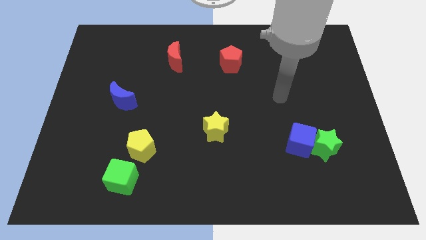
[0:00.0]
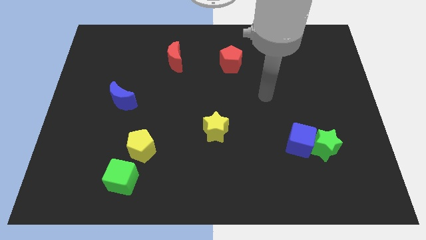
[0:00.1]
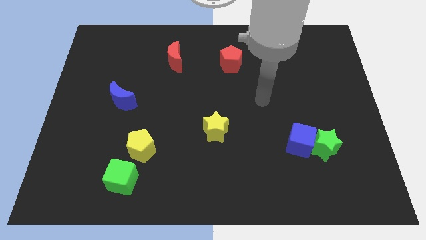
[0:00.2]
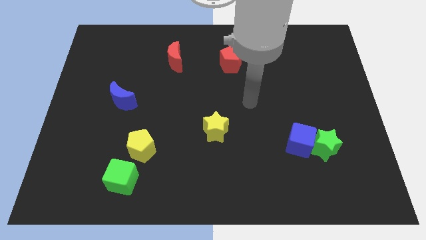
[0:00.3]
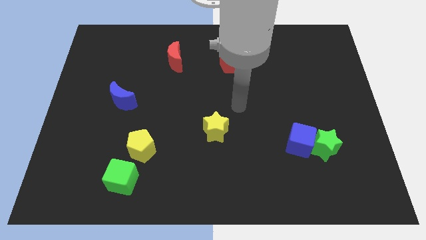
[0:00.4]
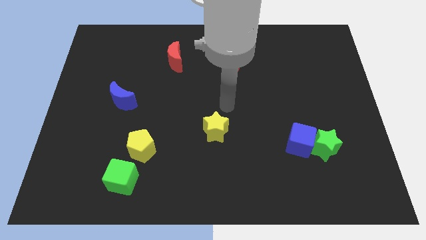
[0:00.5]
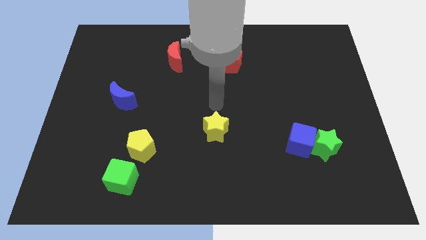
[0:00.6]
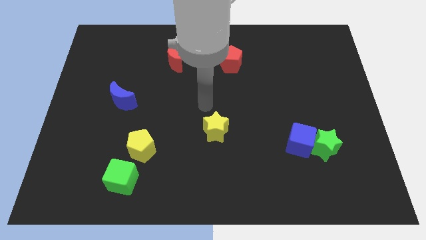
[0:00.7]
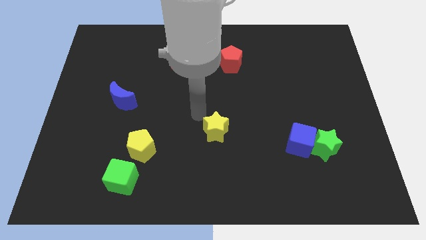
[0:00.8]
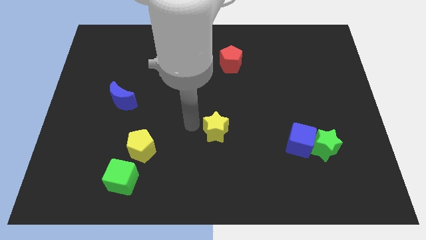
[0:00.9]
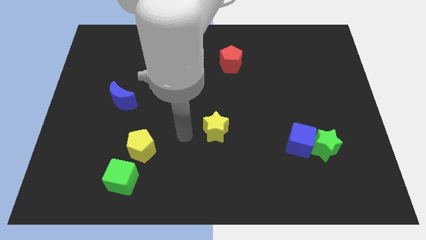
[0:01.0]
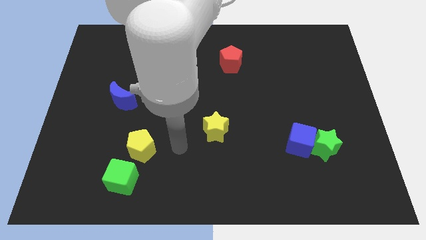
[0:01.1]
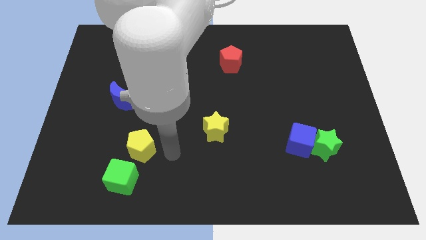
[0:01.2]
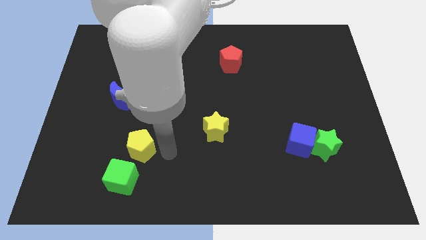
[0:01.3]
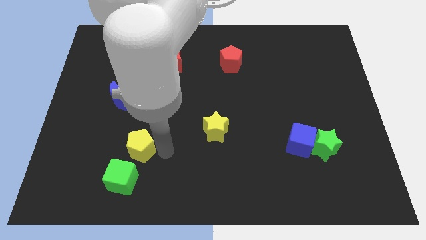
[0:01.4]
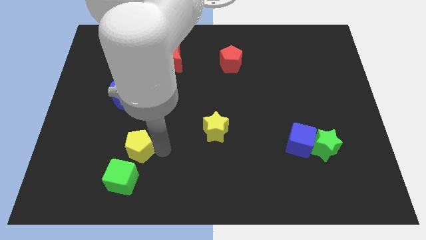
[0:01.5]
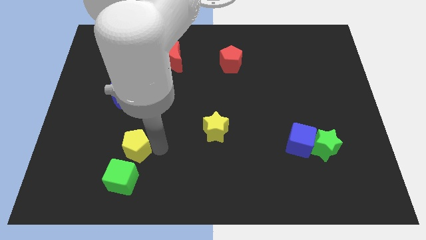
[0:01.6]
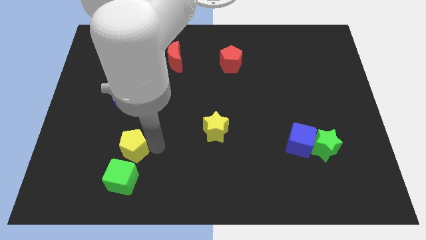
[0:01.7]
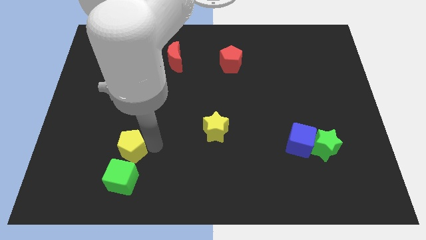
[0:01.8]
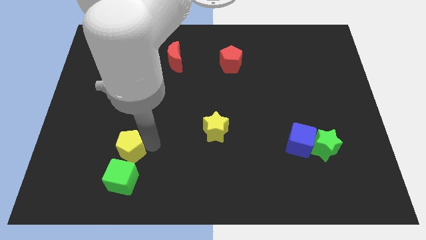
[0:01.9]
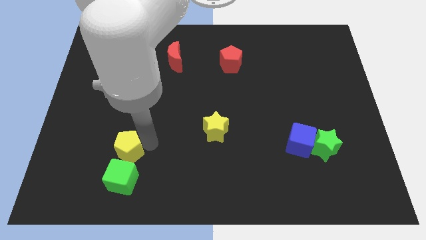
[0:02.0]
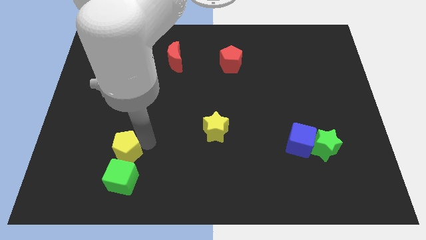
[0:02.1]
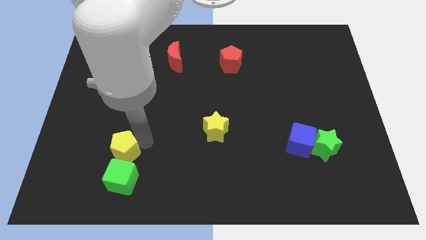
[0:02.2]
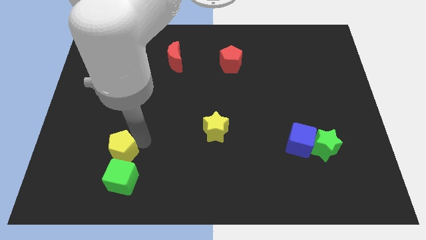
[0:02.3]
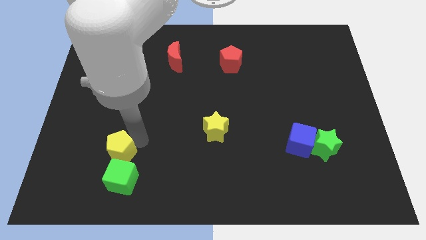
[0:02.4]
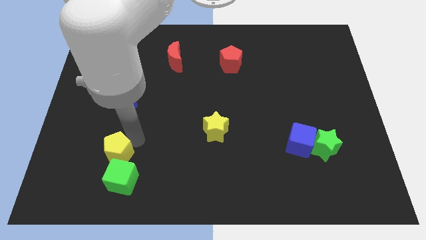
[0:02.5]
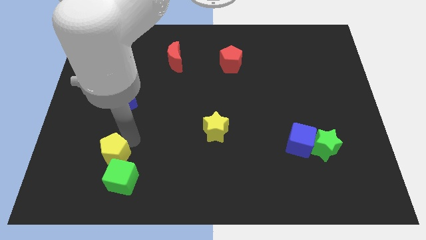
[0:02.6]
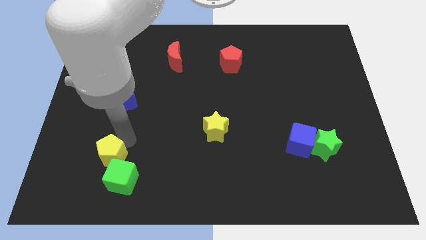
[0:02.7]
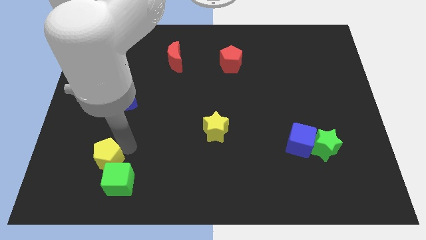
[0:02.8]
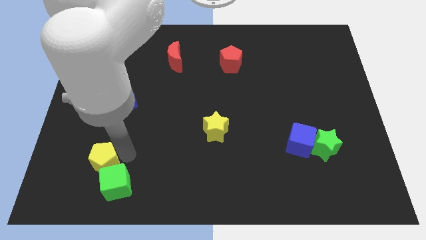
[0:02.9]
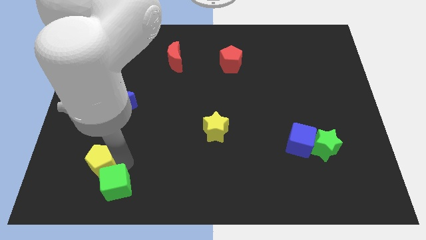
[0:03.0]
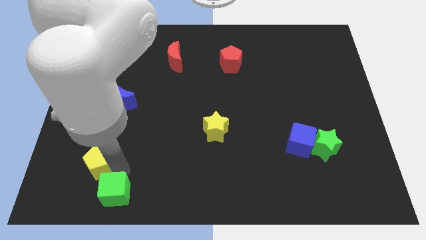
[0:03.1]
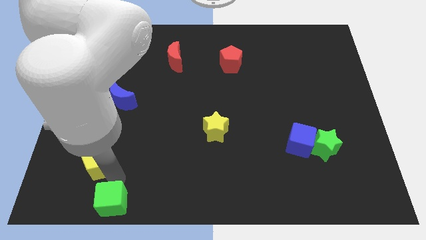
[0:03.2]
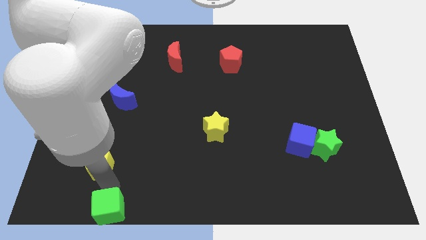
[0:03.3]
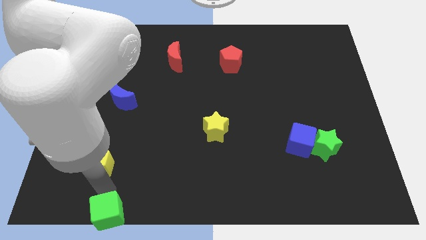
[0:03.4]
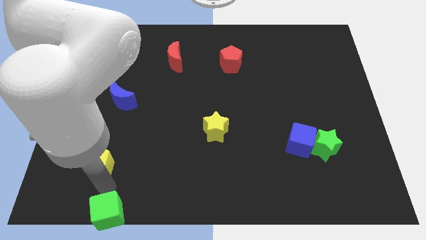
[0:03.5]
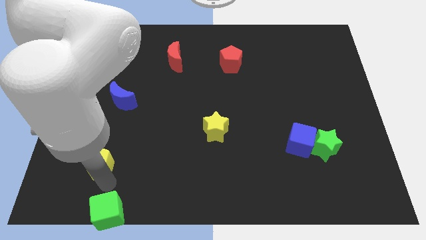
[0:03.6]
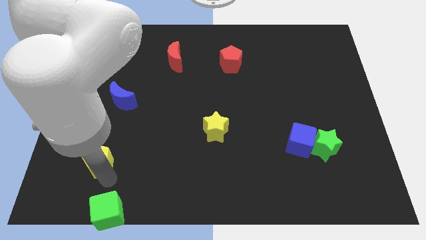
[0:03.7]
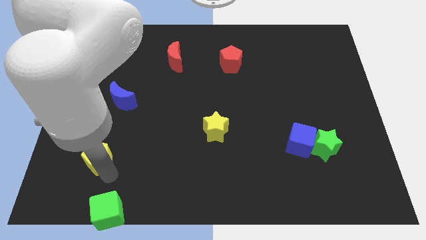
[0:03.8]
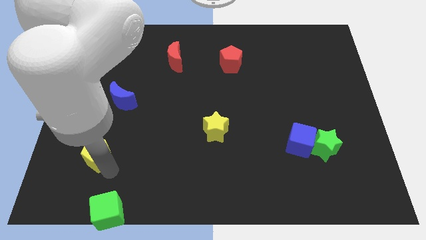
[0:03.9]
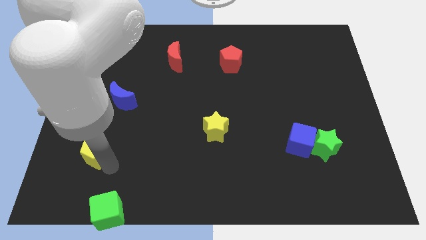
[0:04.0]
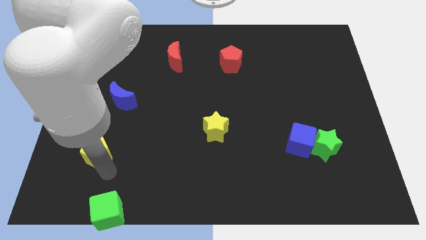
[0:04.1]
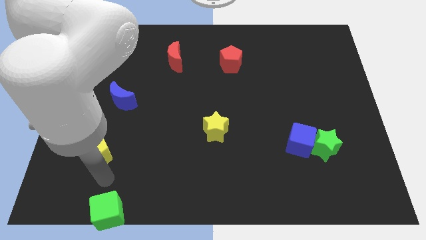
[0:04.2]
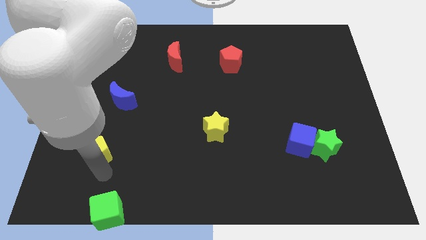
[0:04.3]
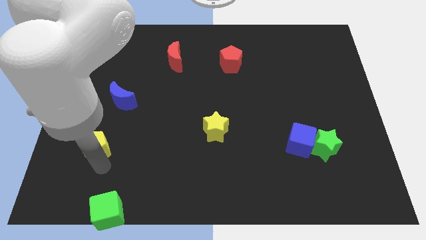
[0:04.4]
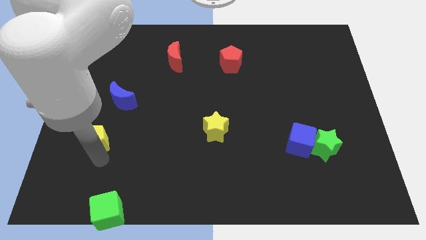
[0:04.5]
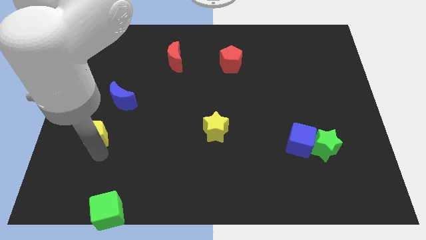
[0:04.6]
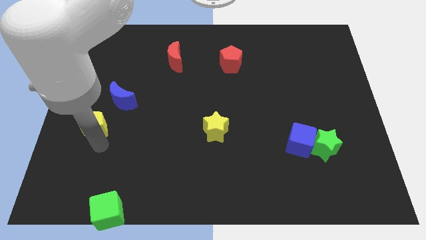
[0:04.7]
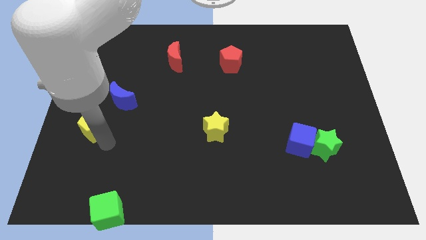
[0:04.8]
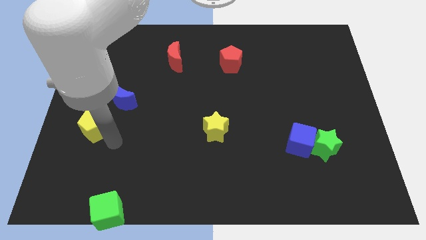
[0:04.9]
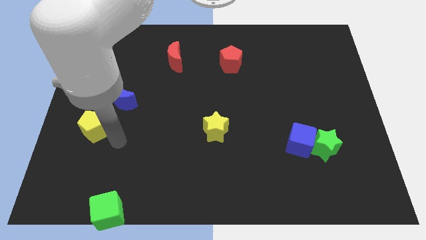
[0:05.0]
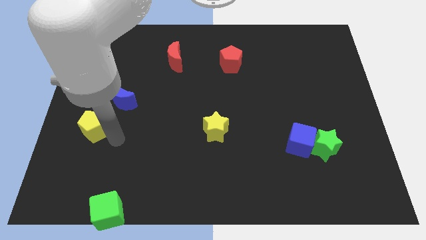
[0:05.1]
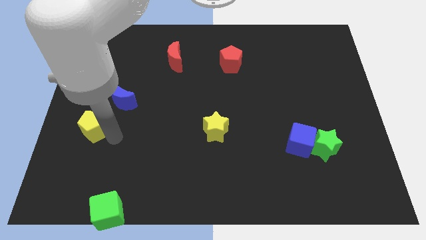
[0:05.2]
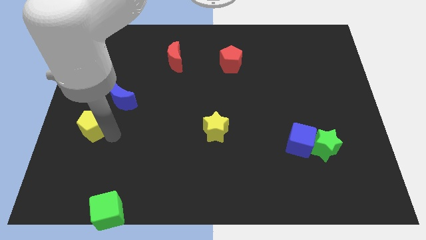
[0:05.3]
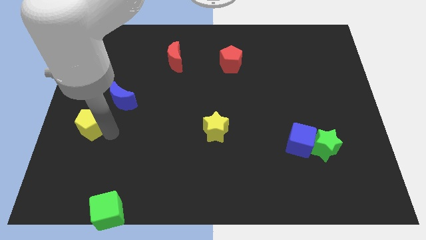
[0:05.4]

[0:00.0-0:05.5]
put the yellow pentagon to the left side
